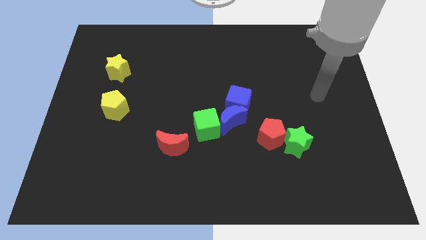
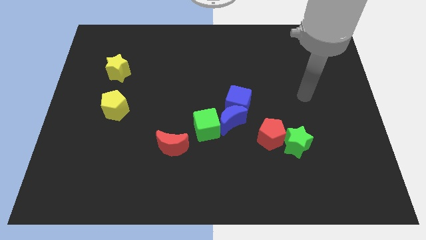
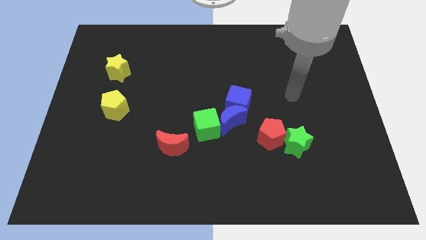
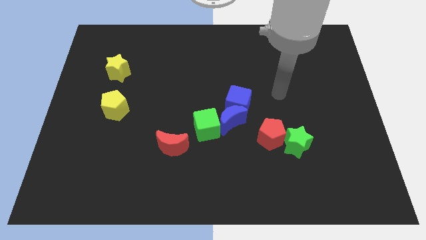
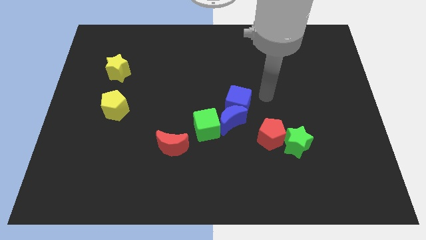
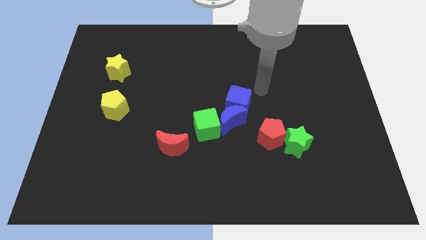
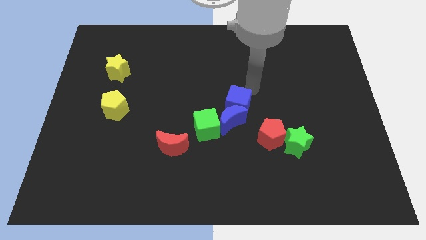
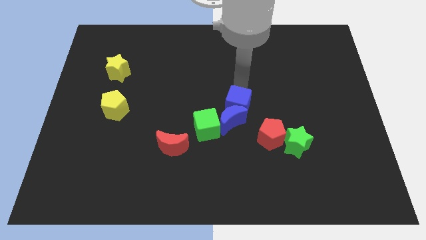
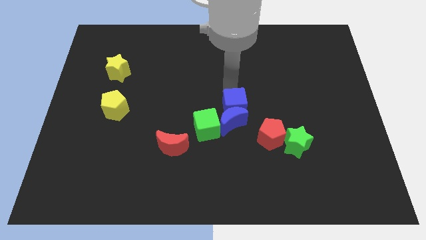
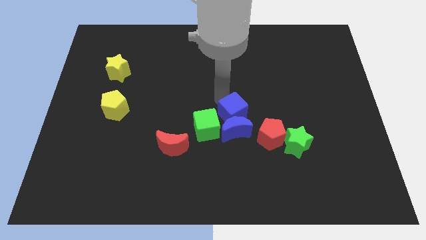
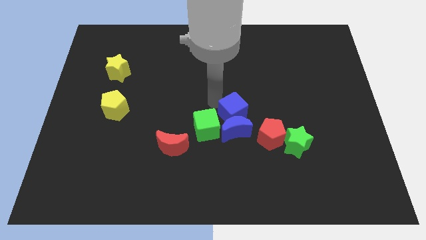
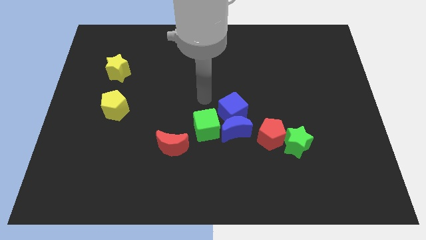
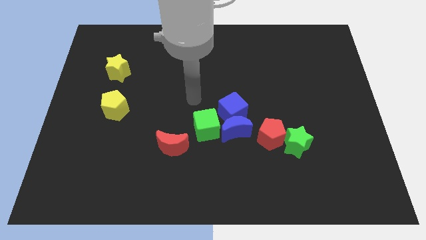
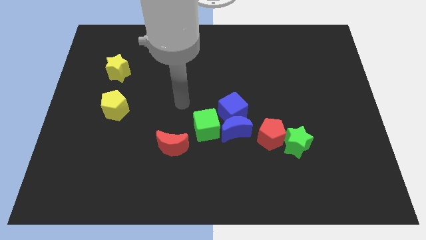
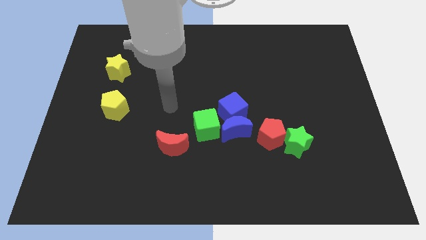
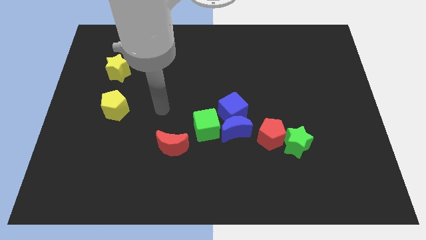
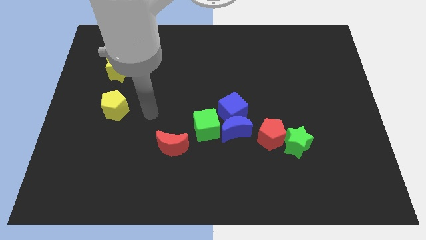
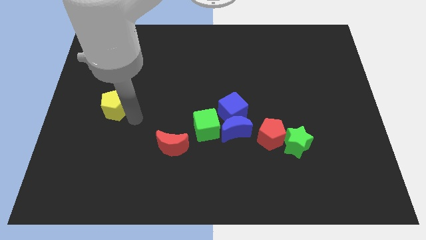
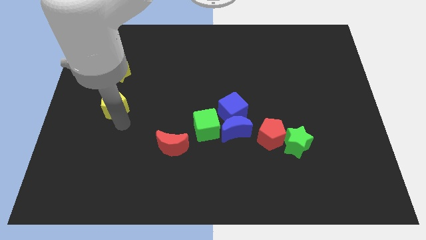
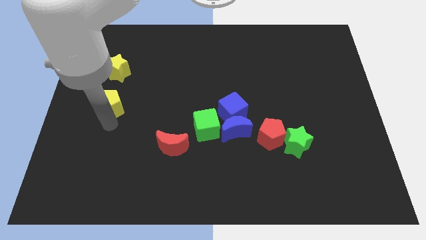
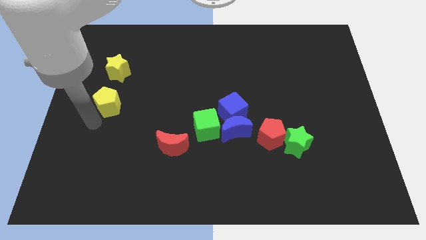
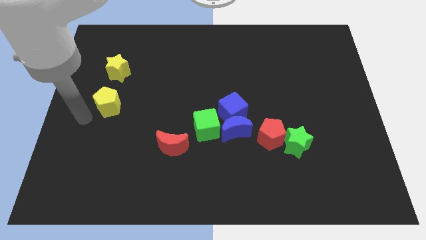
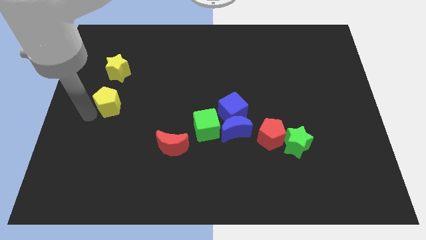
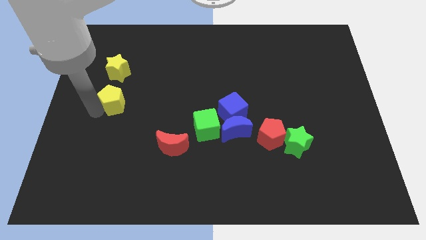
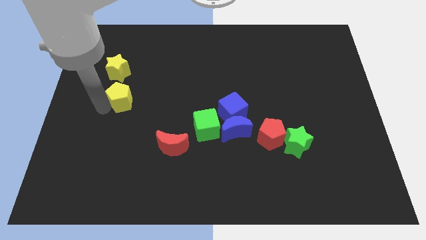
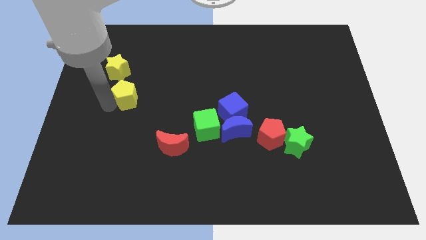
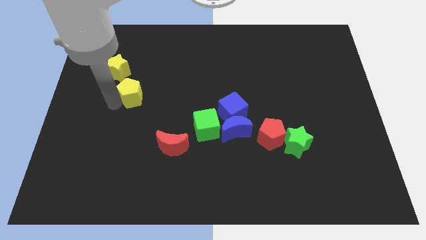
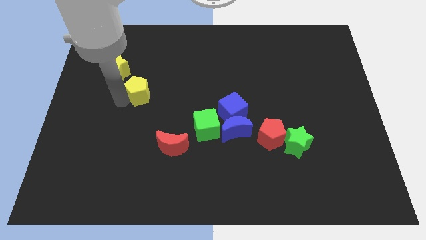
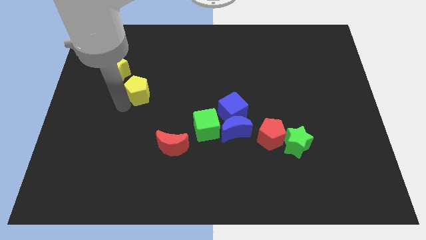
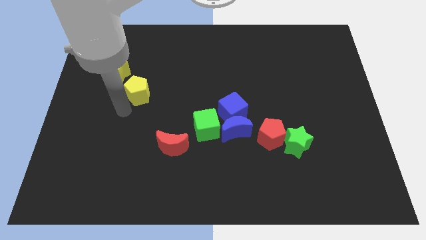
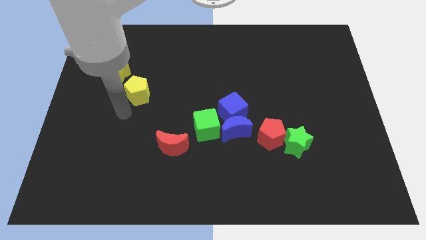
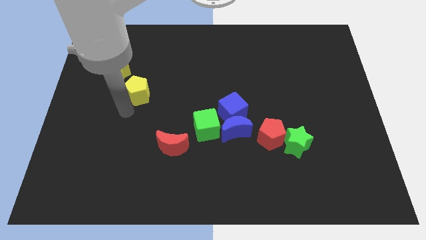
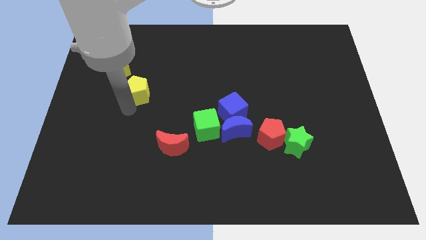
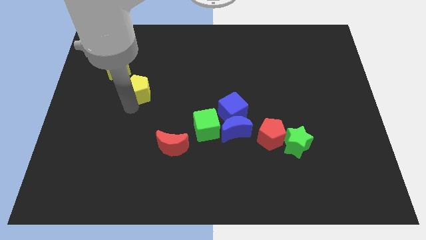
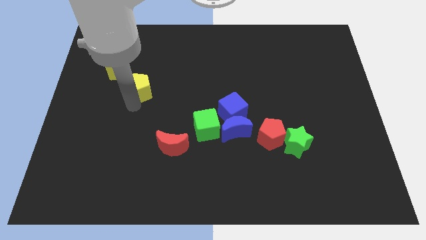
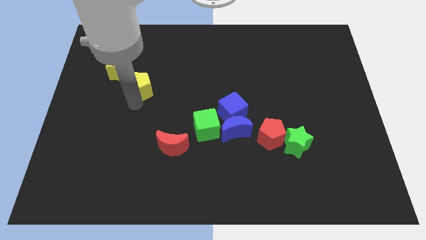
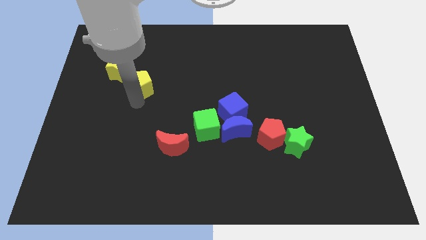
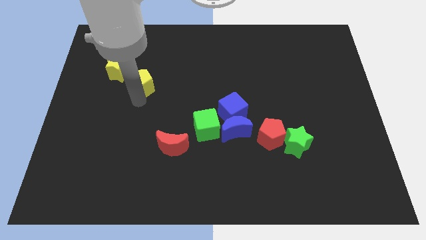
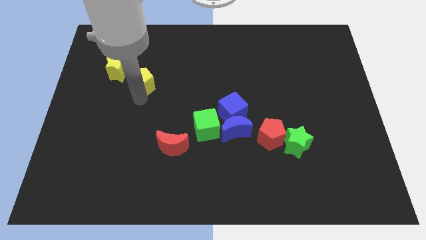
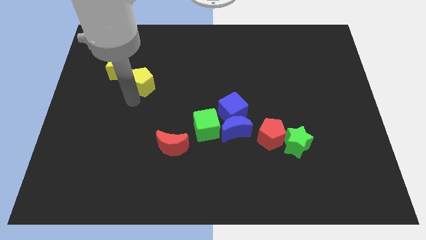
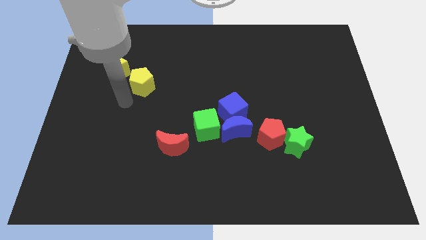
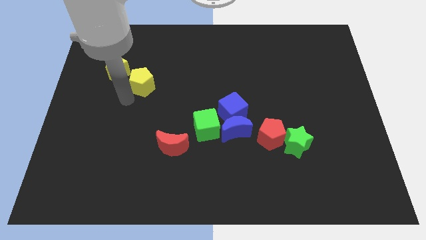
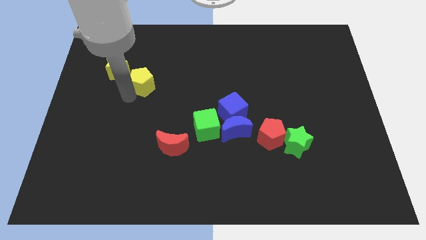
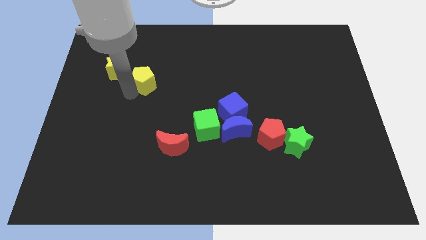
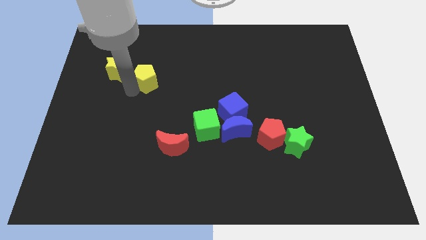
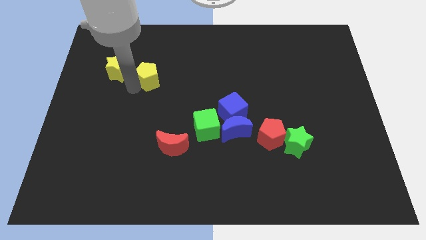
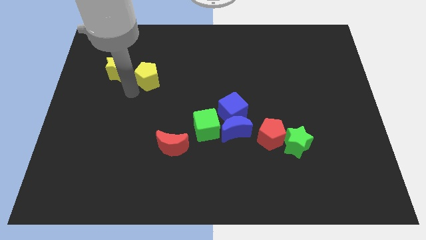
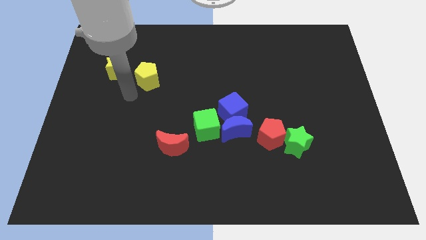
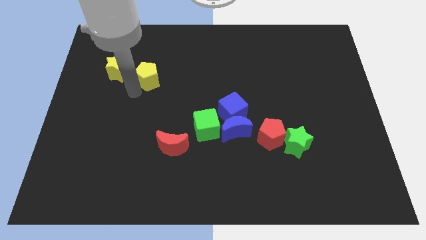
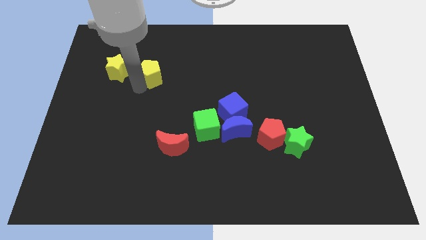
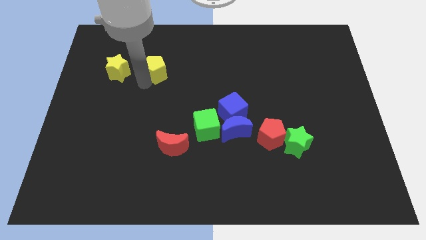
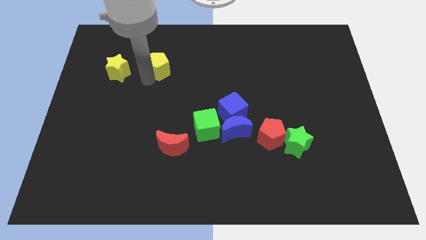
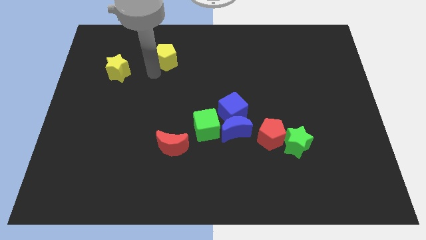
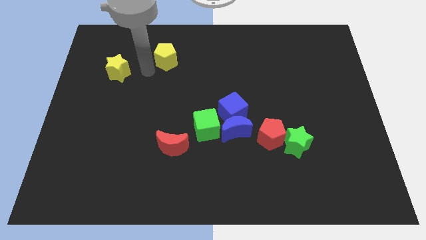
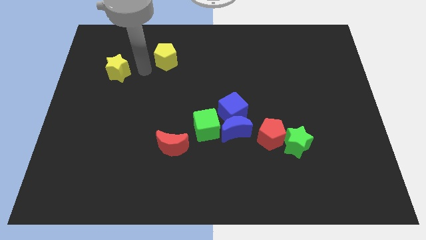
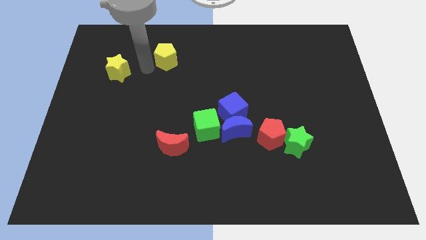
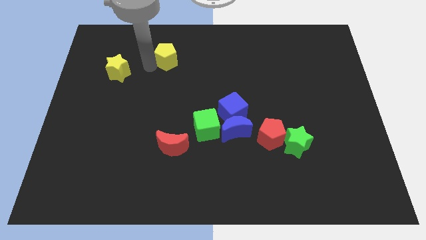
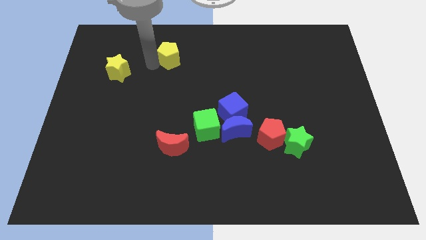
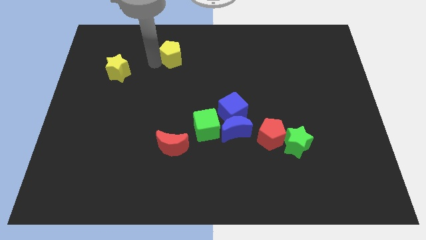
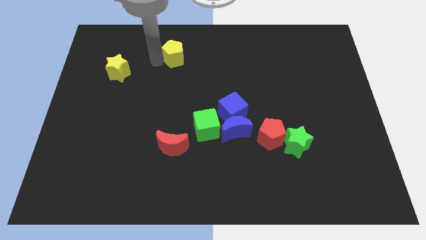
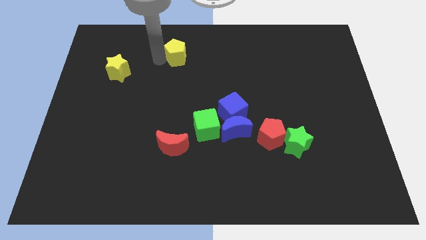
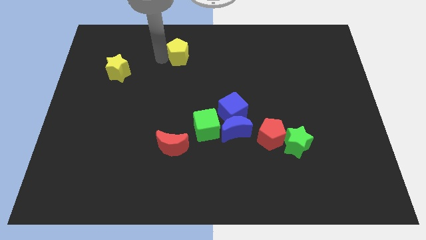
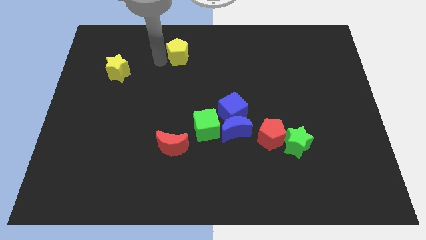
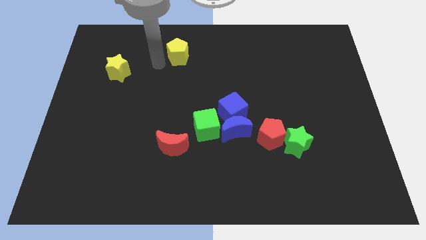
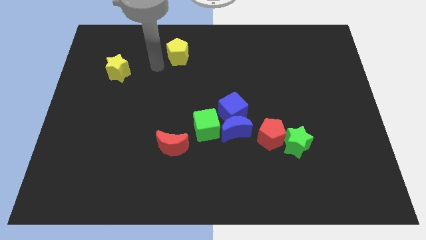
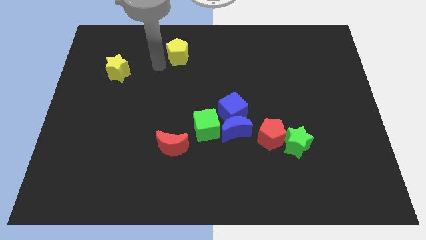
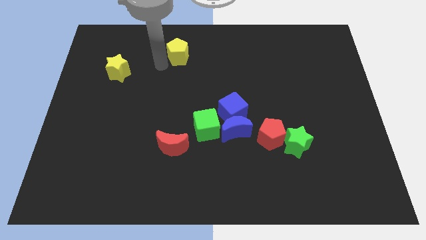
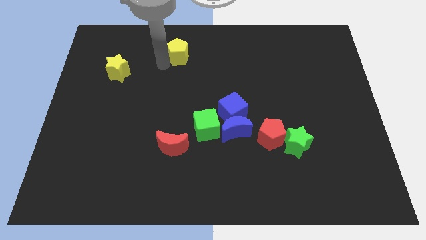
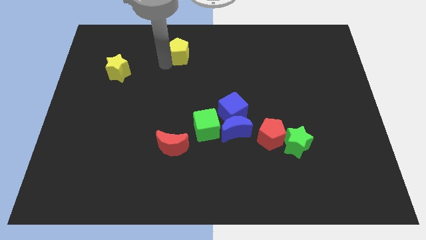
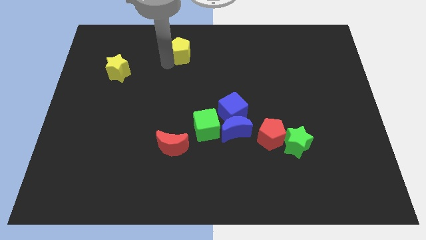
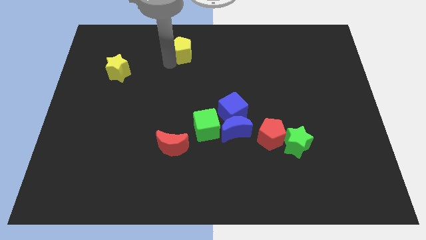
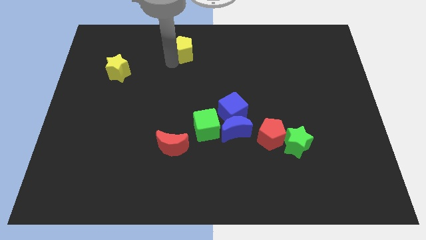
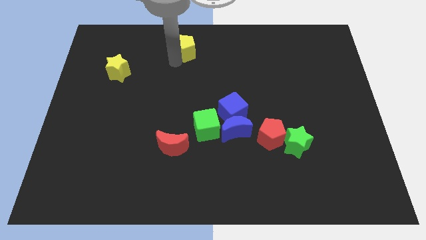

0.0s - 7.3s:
move the yellow pentagon to the towards your base
